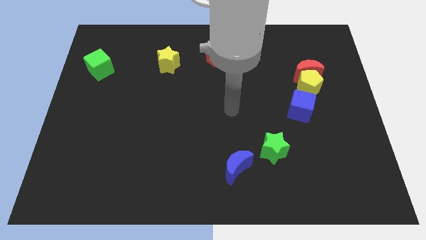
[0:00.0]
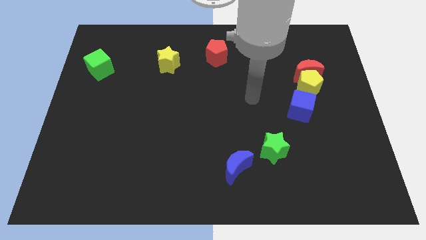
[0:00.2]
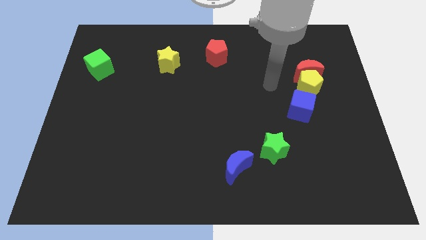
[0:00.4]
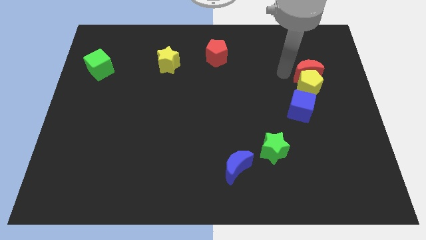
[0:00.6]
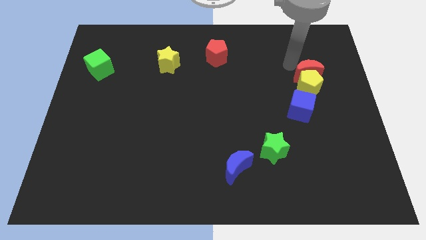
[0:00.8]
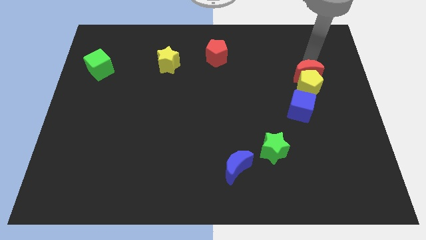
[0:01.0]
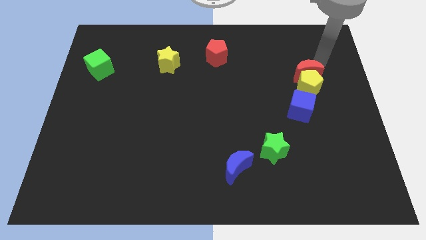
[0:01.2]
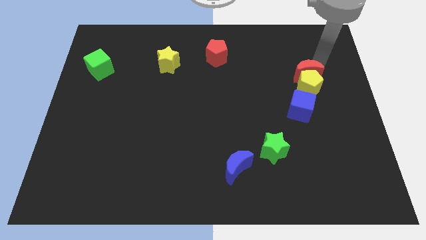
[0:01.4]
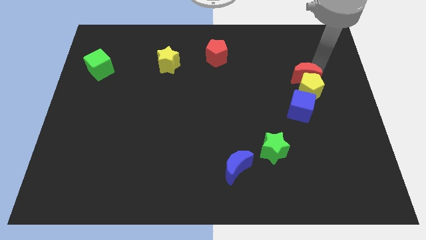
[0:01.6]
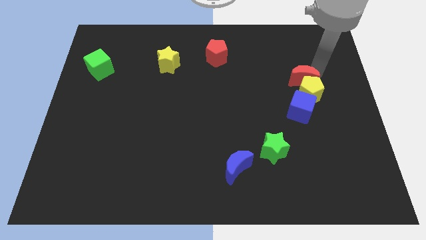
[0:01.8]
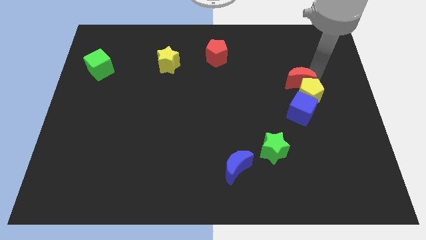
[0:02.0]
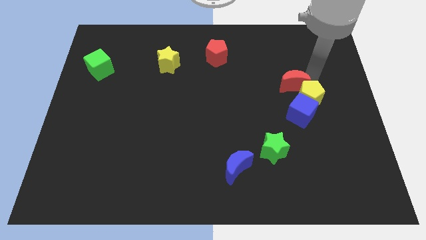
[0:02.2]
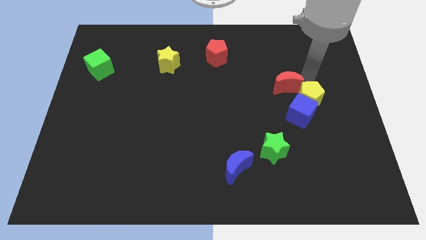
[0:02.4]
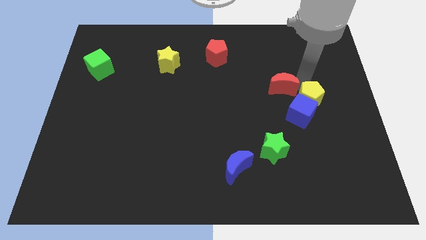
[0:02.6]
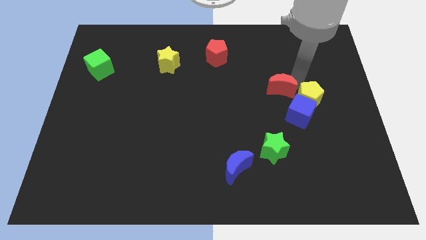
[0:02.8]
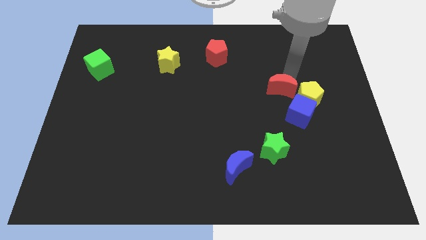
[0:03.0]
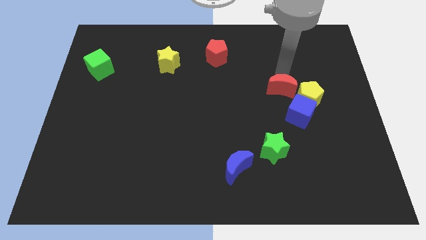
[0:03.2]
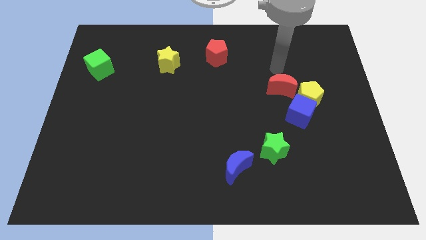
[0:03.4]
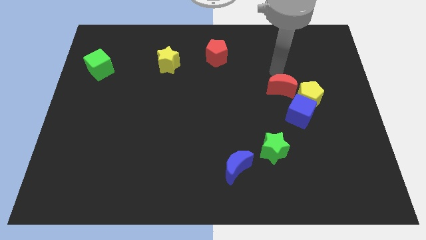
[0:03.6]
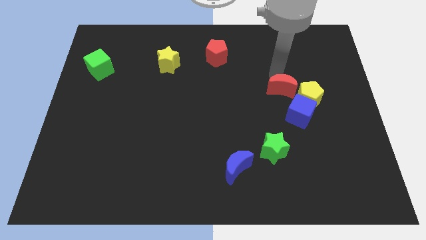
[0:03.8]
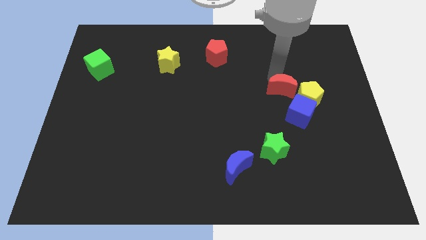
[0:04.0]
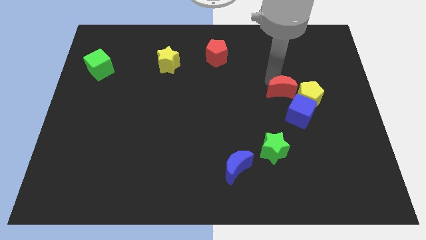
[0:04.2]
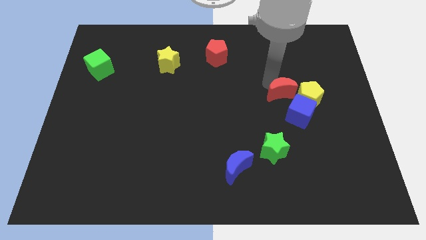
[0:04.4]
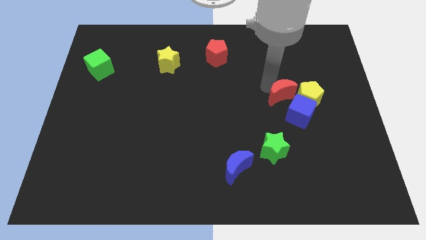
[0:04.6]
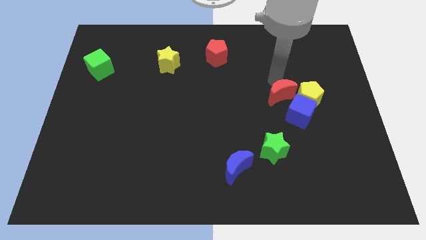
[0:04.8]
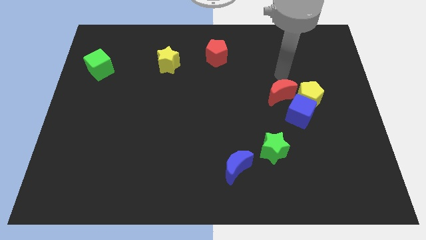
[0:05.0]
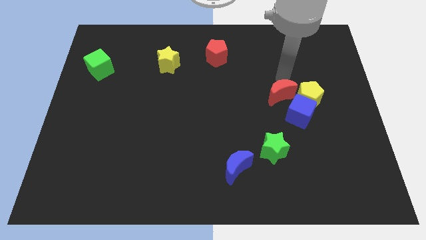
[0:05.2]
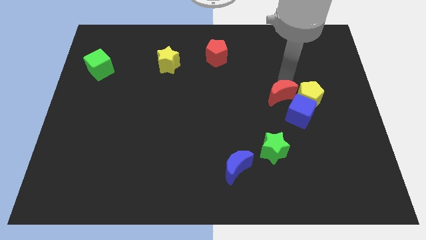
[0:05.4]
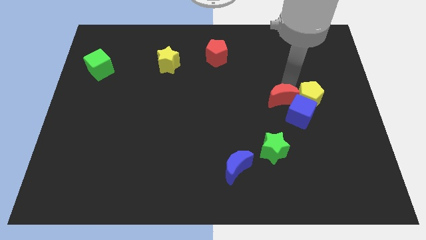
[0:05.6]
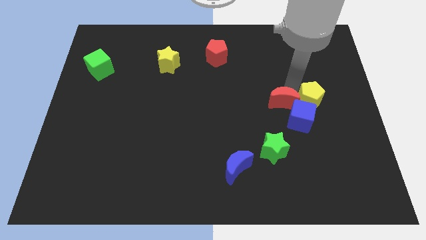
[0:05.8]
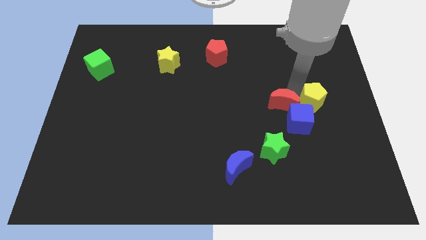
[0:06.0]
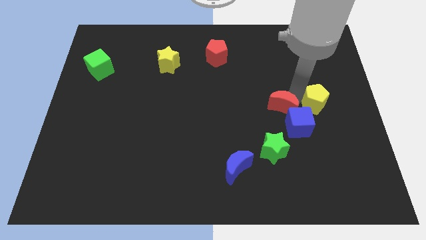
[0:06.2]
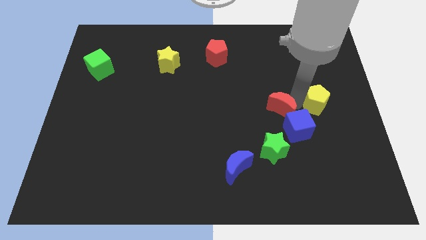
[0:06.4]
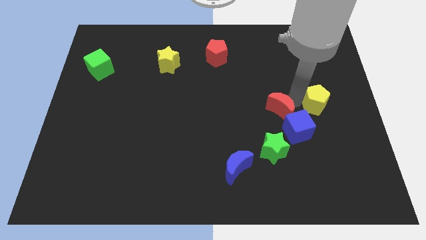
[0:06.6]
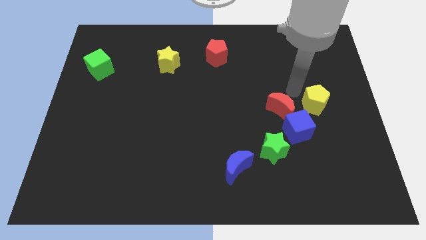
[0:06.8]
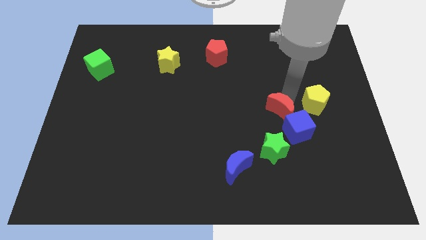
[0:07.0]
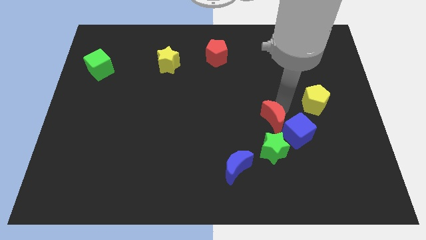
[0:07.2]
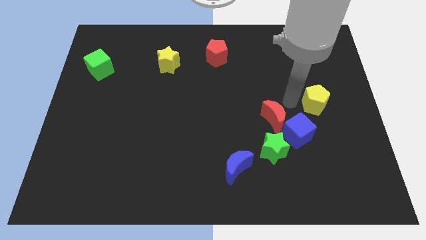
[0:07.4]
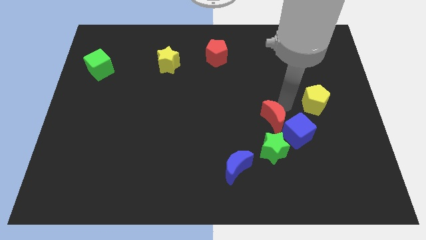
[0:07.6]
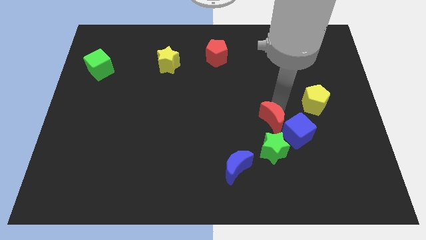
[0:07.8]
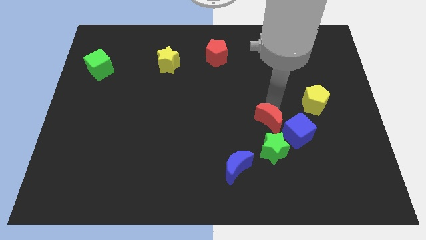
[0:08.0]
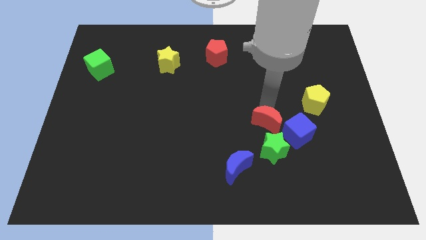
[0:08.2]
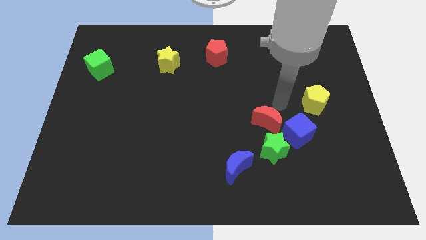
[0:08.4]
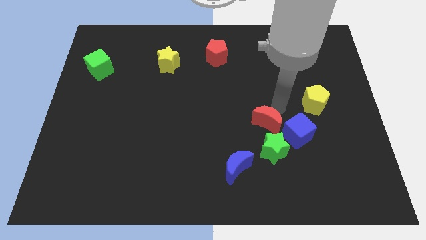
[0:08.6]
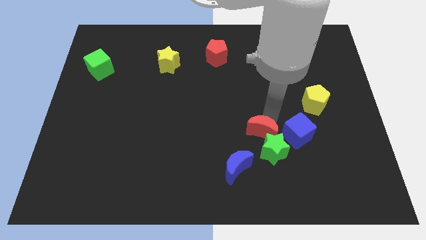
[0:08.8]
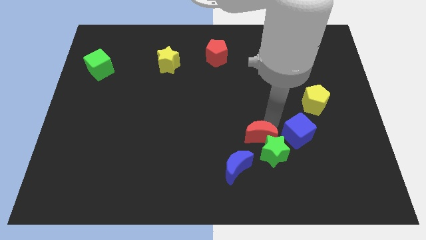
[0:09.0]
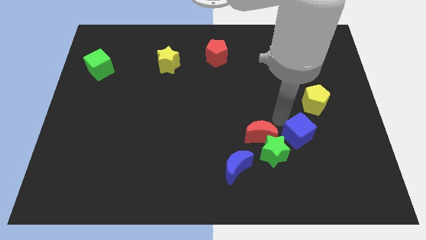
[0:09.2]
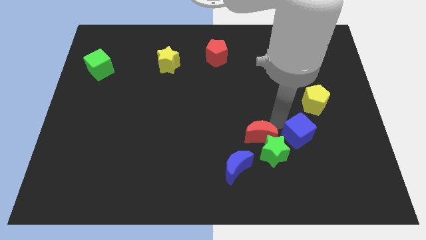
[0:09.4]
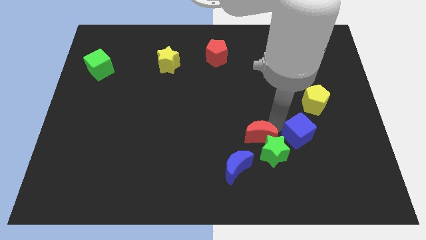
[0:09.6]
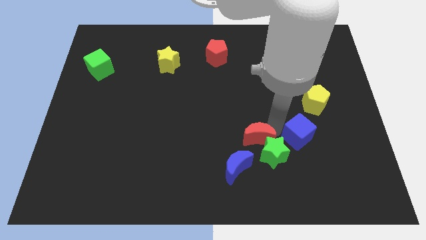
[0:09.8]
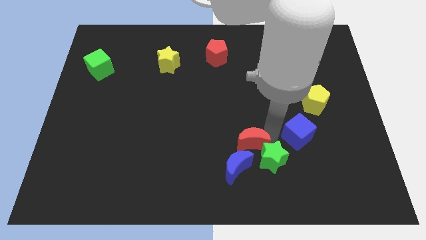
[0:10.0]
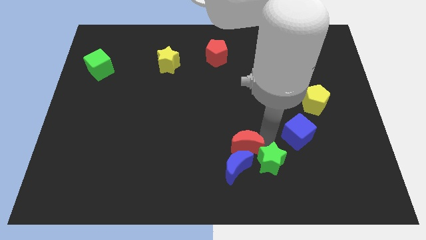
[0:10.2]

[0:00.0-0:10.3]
put the red moon close to the blue moon

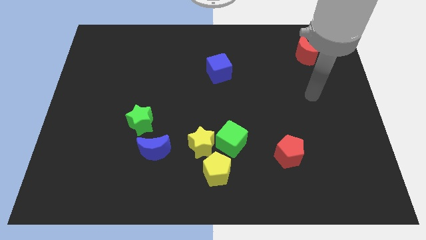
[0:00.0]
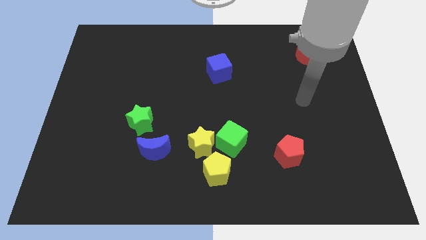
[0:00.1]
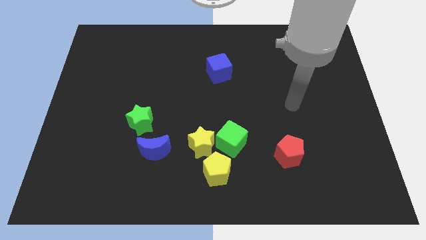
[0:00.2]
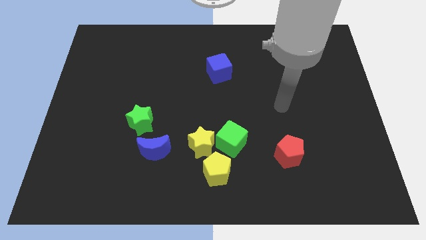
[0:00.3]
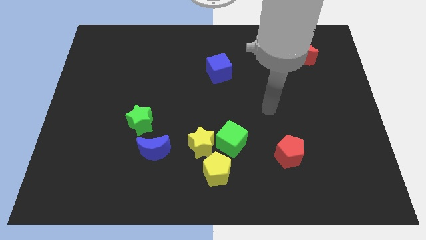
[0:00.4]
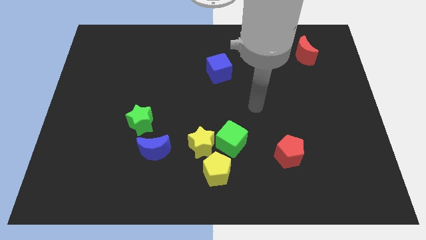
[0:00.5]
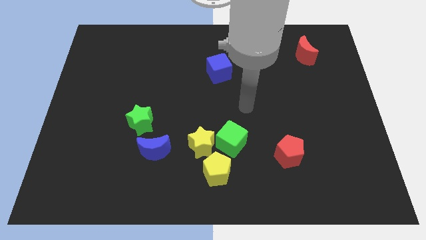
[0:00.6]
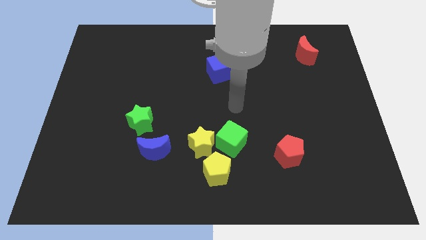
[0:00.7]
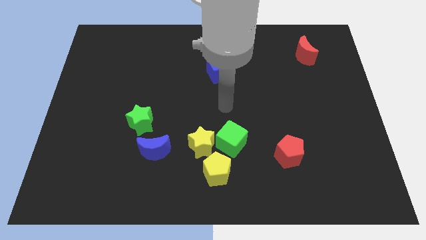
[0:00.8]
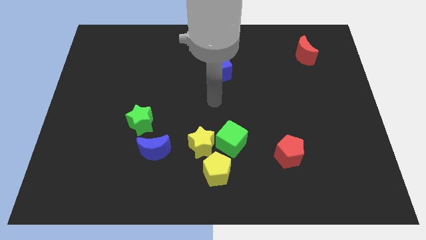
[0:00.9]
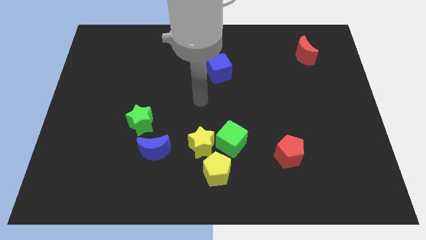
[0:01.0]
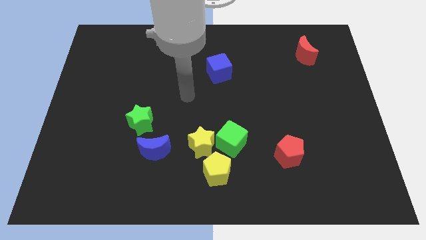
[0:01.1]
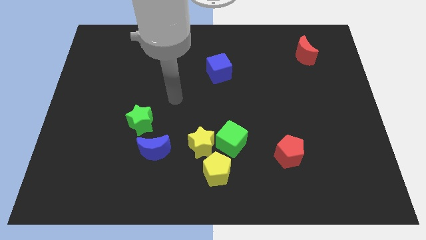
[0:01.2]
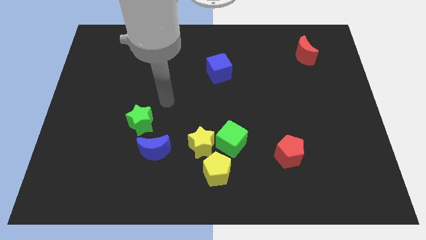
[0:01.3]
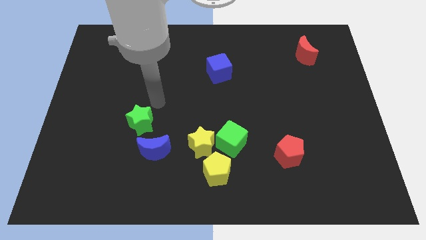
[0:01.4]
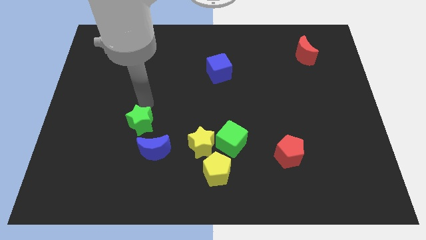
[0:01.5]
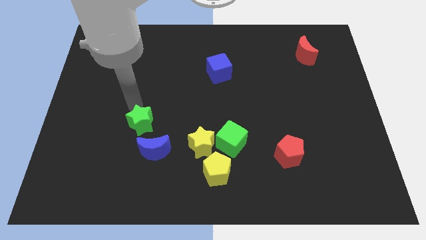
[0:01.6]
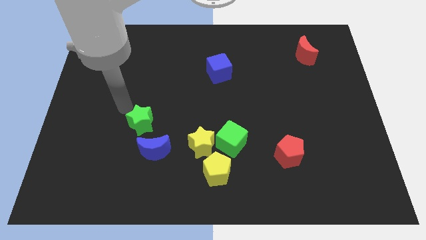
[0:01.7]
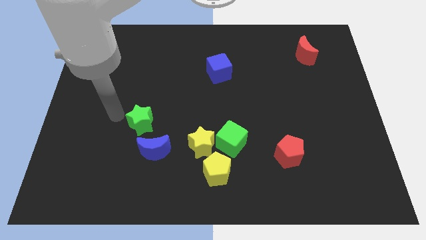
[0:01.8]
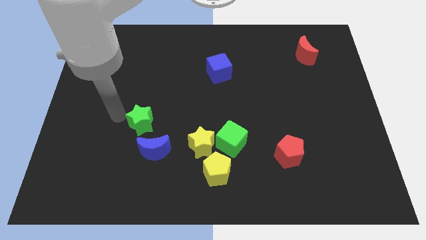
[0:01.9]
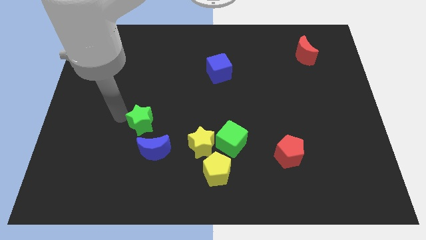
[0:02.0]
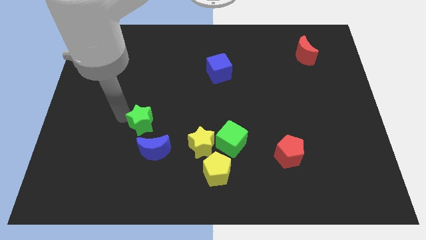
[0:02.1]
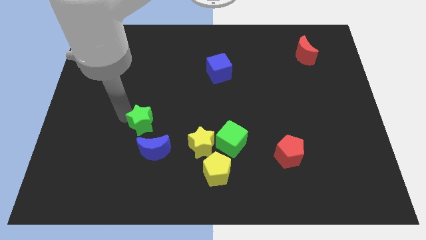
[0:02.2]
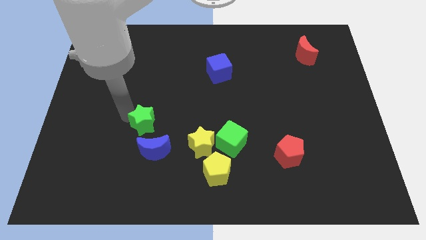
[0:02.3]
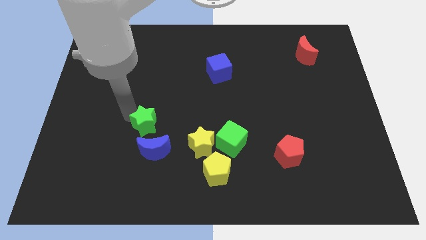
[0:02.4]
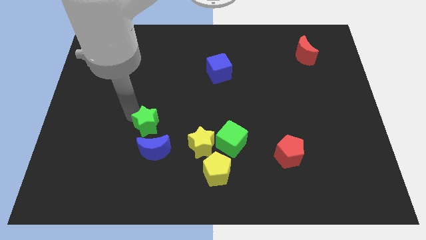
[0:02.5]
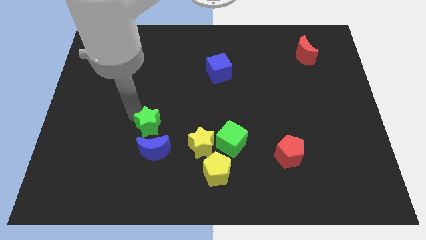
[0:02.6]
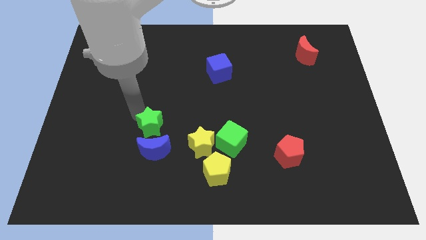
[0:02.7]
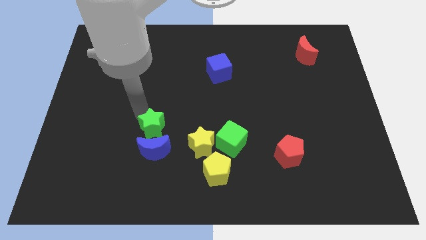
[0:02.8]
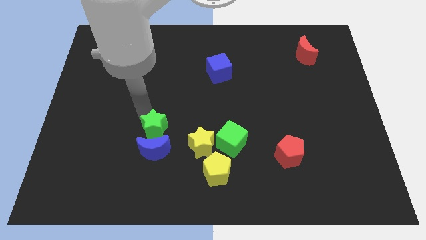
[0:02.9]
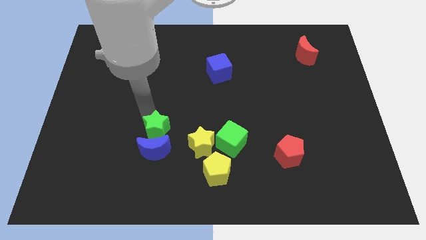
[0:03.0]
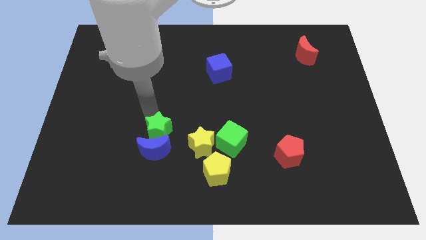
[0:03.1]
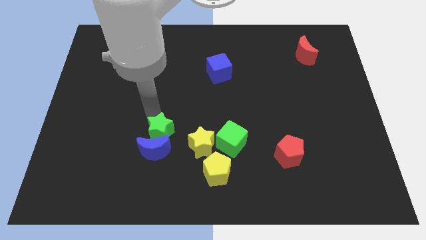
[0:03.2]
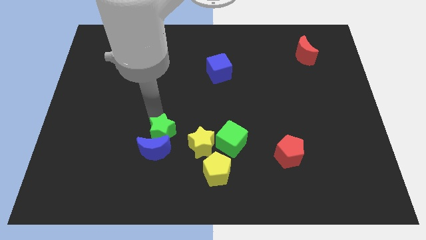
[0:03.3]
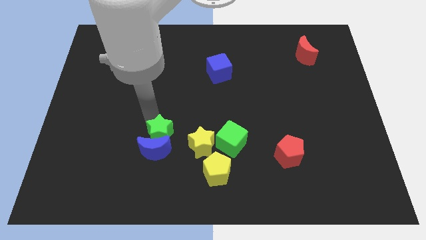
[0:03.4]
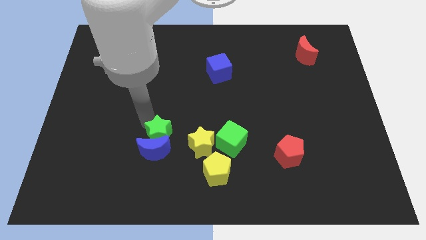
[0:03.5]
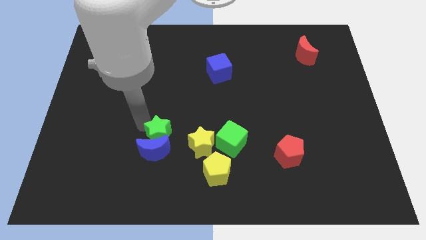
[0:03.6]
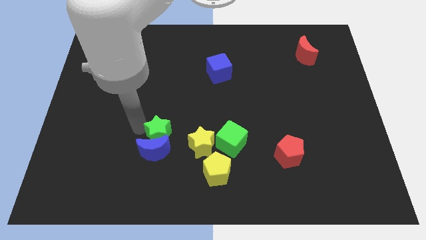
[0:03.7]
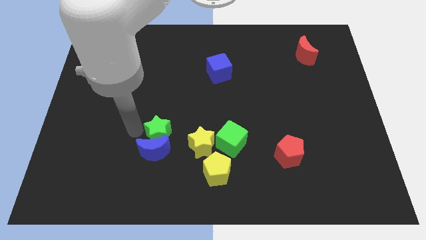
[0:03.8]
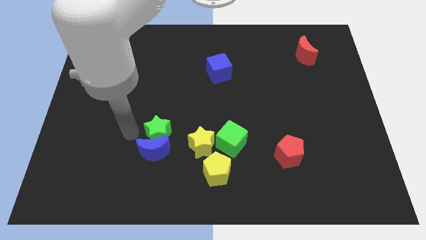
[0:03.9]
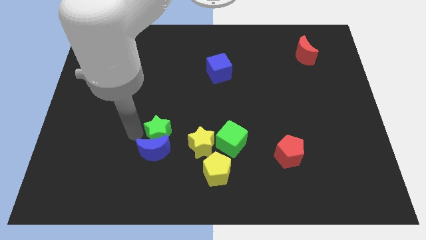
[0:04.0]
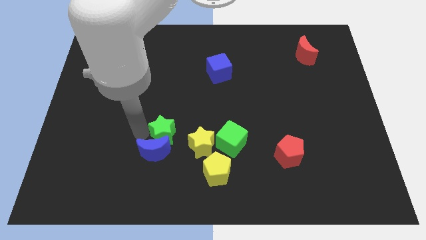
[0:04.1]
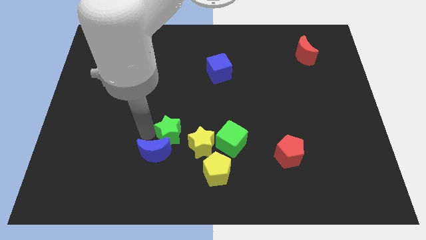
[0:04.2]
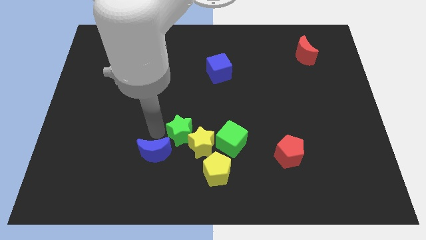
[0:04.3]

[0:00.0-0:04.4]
move the green star close to the yellow star
